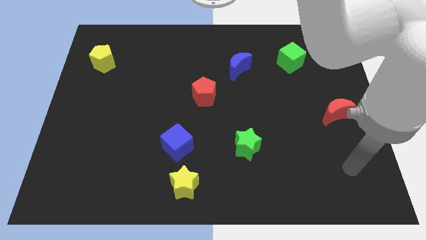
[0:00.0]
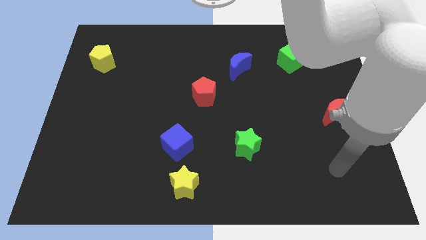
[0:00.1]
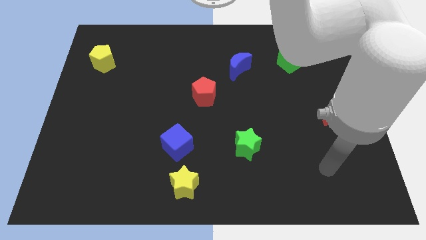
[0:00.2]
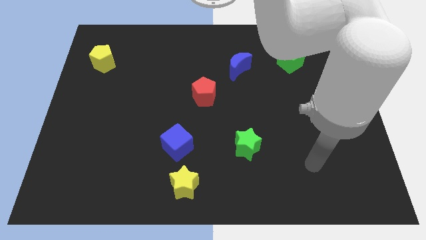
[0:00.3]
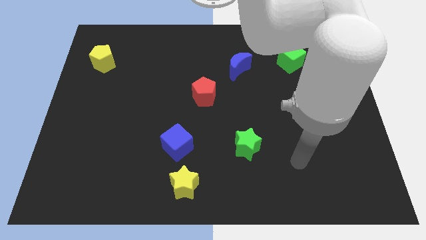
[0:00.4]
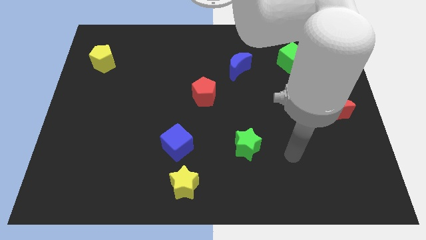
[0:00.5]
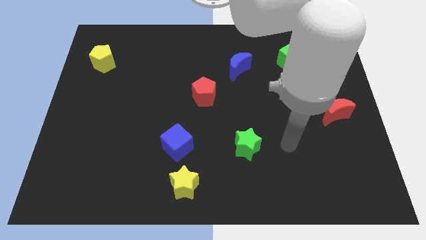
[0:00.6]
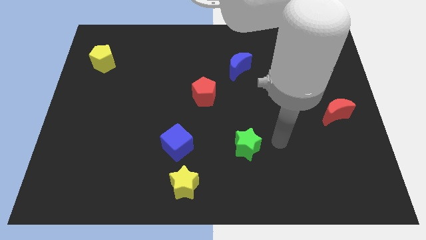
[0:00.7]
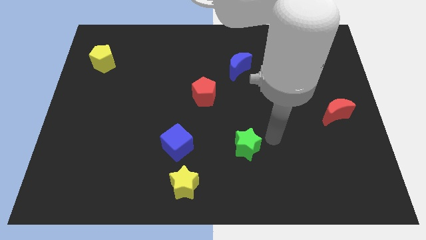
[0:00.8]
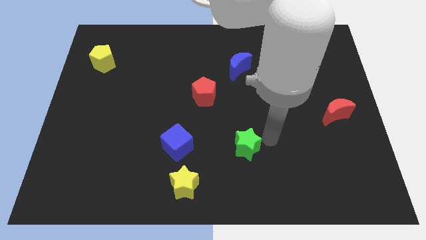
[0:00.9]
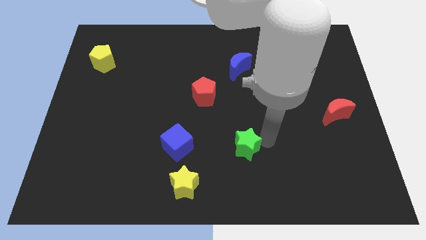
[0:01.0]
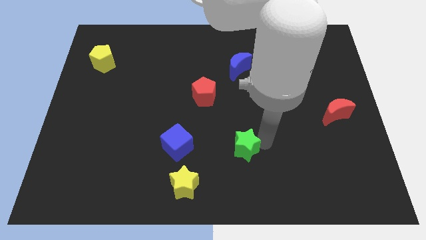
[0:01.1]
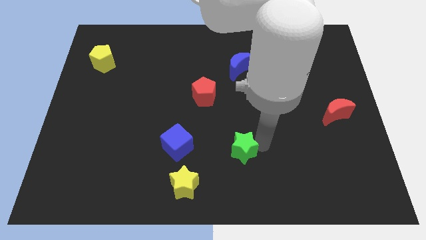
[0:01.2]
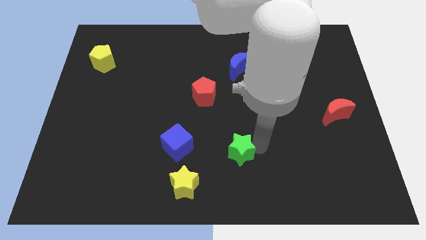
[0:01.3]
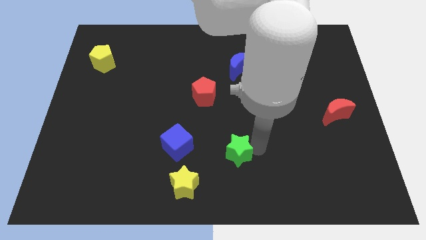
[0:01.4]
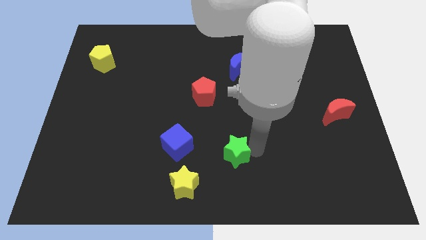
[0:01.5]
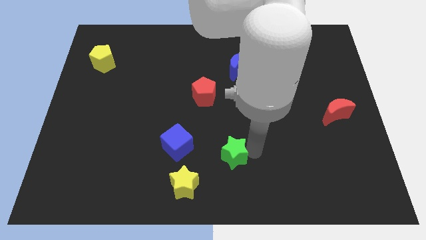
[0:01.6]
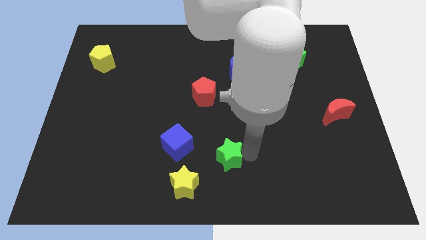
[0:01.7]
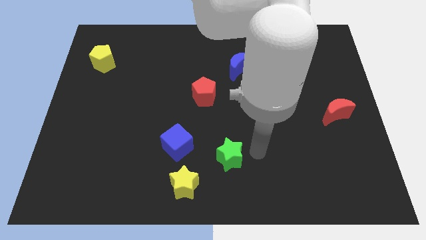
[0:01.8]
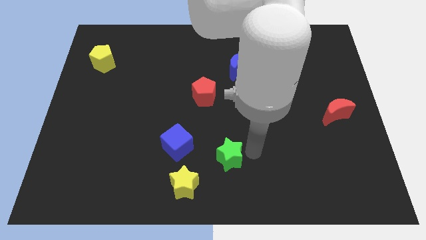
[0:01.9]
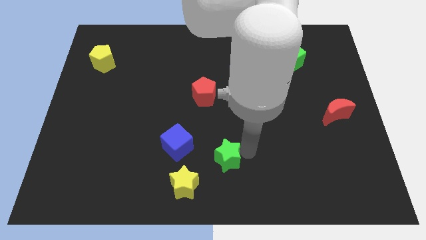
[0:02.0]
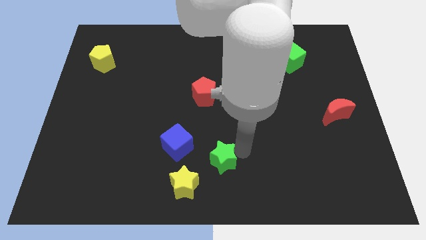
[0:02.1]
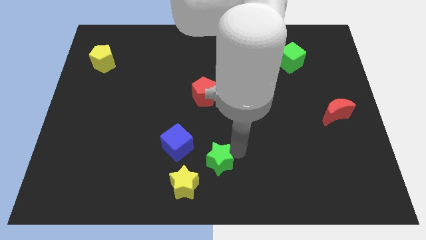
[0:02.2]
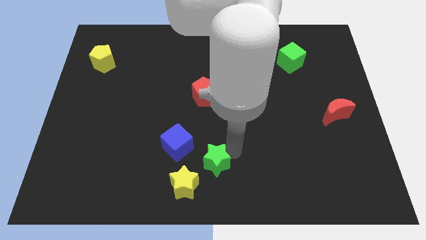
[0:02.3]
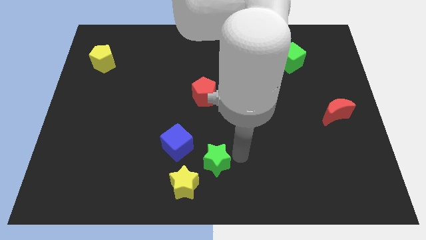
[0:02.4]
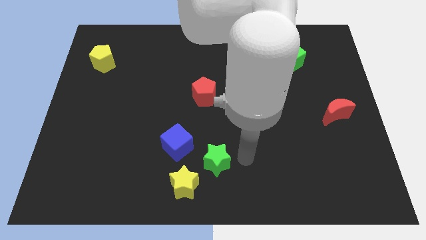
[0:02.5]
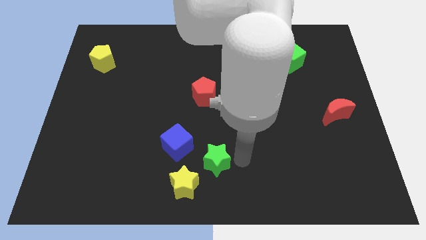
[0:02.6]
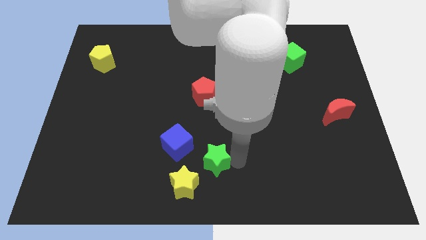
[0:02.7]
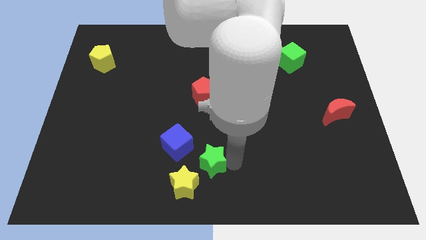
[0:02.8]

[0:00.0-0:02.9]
push the green star to the left a little bit

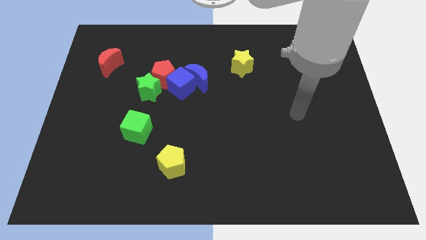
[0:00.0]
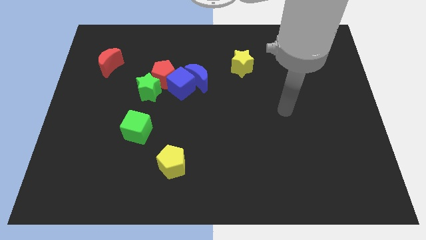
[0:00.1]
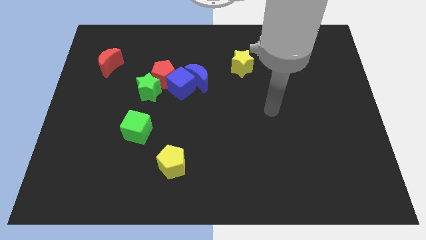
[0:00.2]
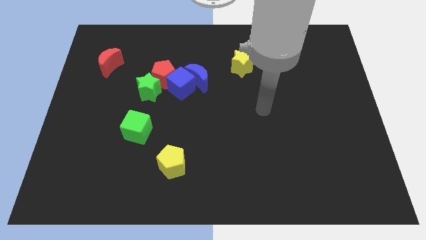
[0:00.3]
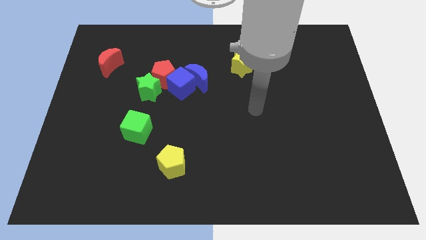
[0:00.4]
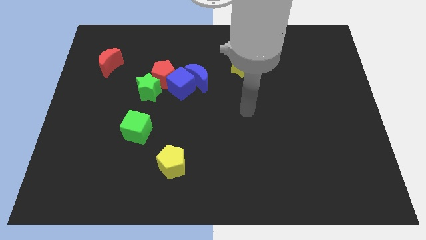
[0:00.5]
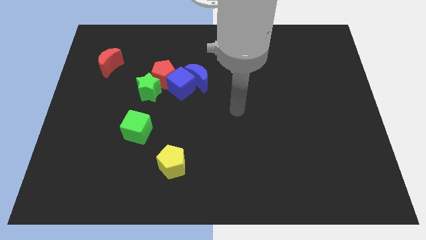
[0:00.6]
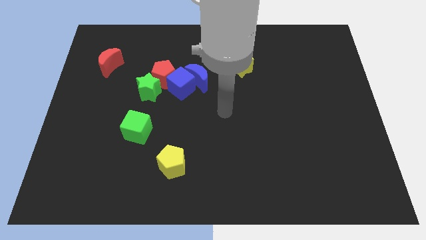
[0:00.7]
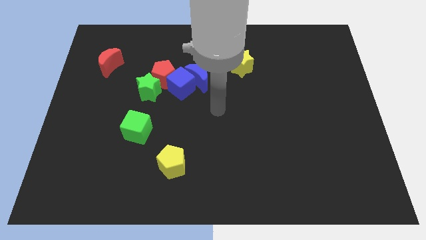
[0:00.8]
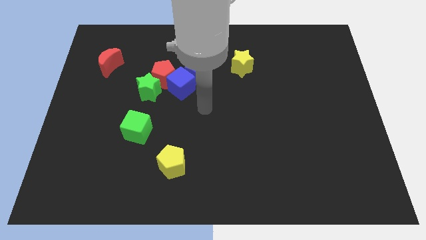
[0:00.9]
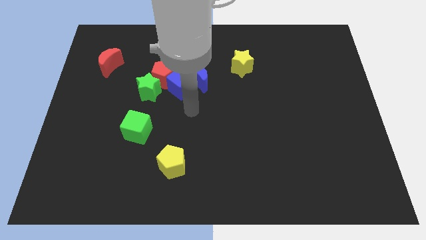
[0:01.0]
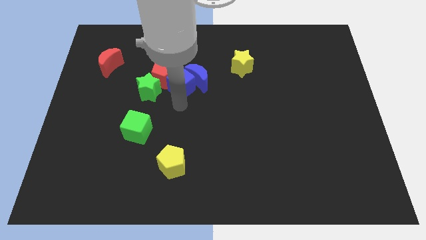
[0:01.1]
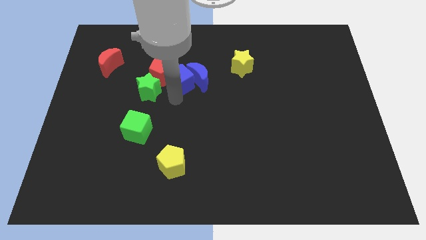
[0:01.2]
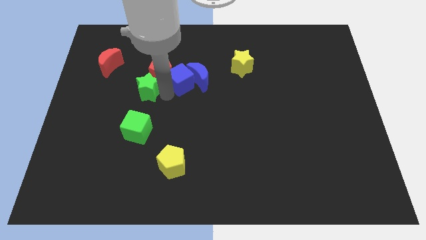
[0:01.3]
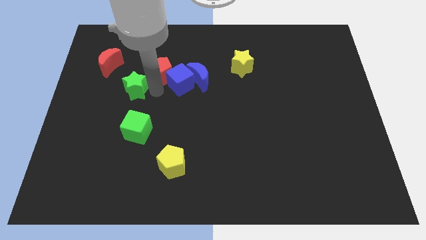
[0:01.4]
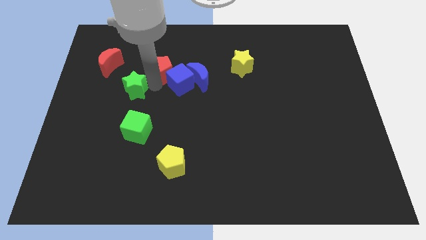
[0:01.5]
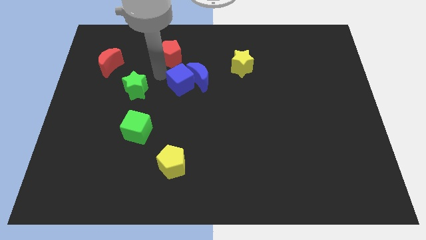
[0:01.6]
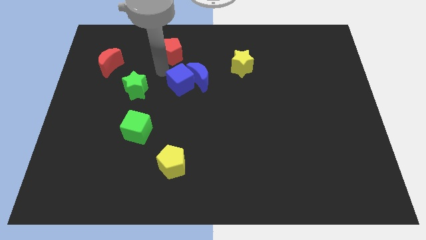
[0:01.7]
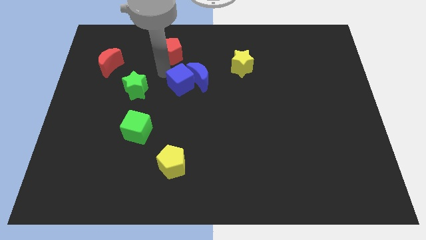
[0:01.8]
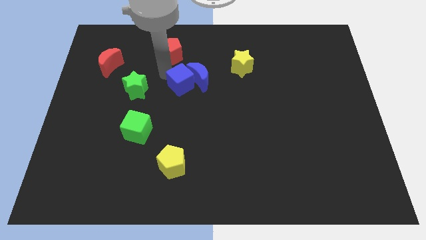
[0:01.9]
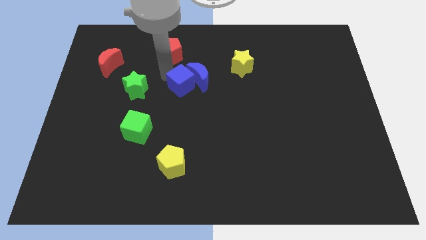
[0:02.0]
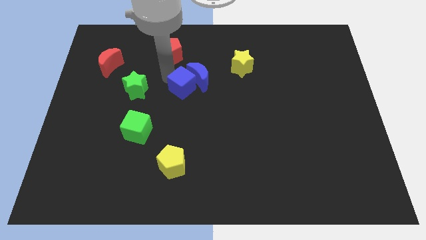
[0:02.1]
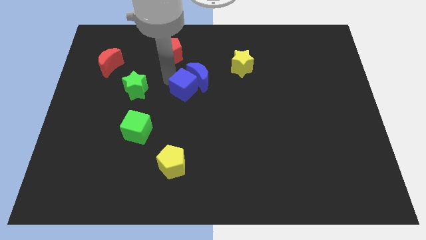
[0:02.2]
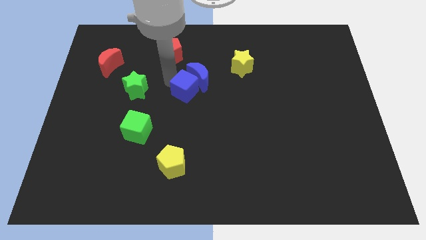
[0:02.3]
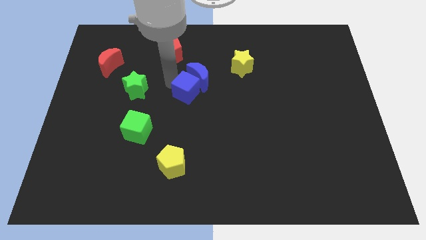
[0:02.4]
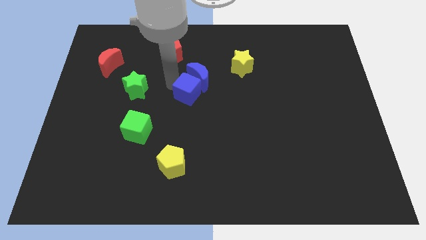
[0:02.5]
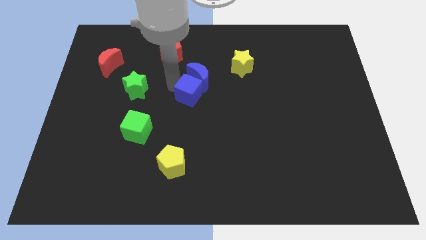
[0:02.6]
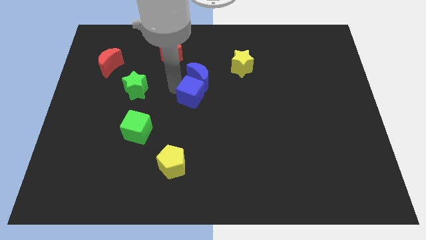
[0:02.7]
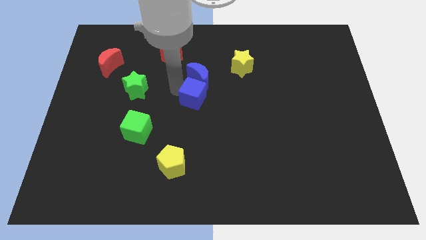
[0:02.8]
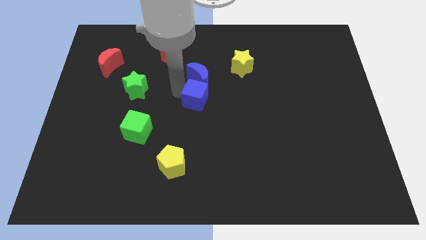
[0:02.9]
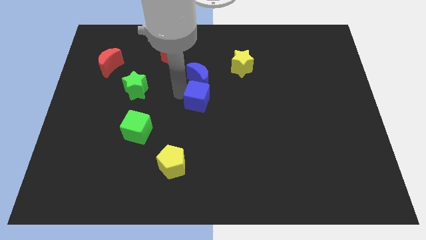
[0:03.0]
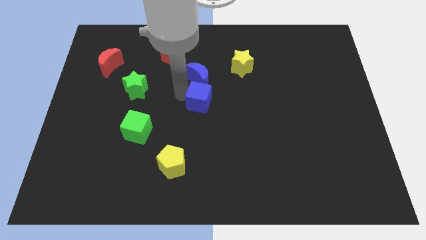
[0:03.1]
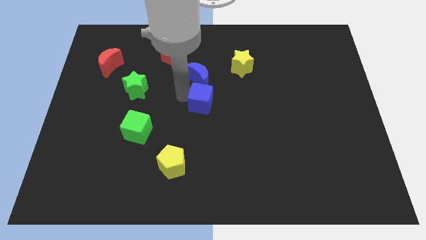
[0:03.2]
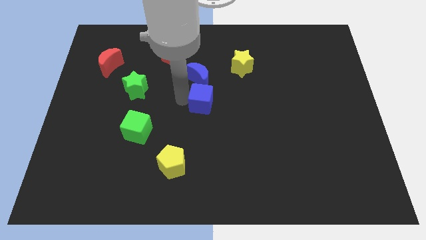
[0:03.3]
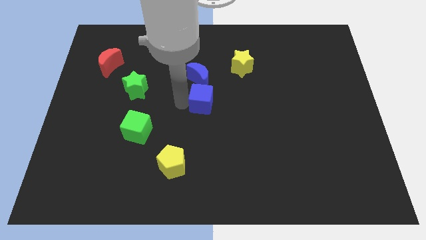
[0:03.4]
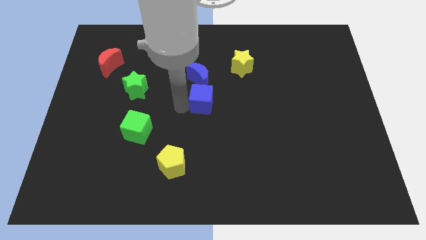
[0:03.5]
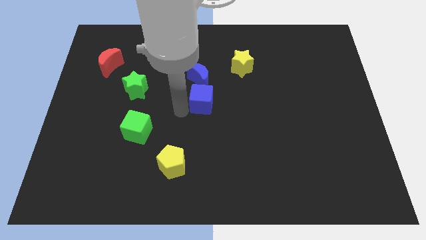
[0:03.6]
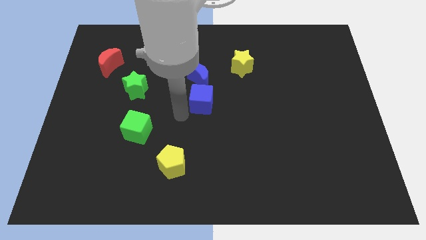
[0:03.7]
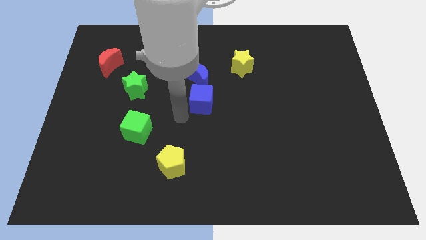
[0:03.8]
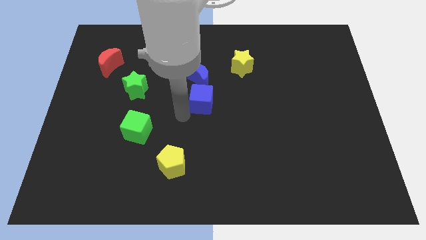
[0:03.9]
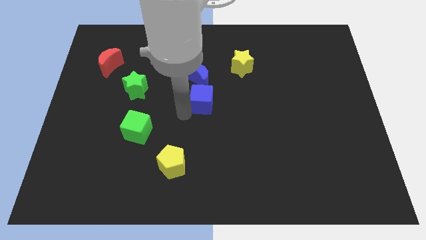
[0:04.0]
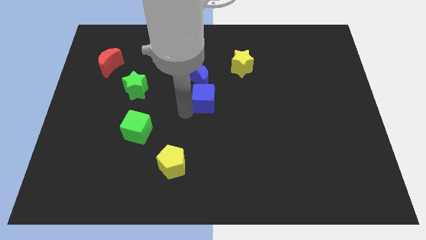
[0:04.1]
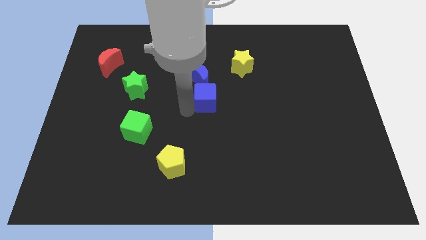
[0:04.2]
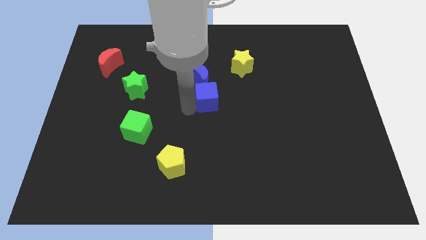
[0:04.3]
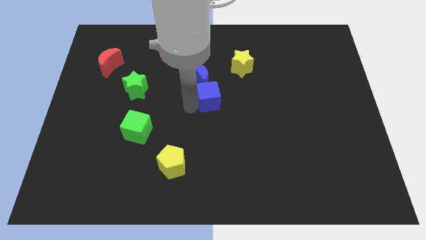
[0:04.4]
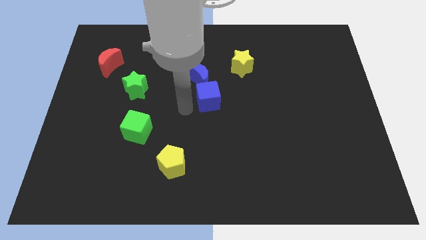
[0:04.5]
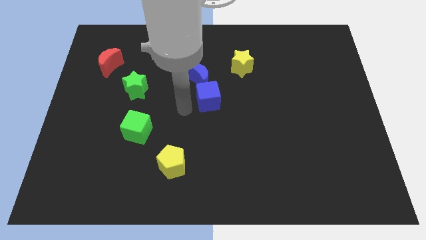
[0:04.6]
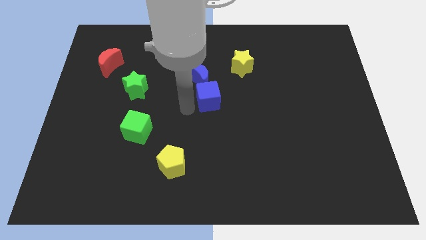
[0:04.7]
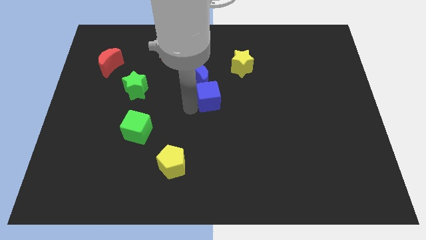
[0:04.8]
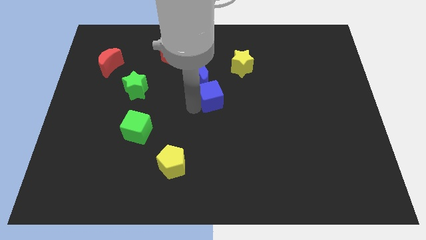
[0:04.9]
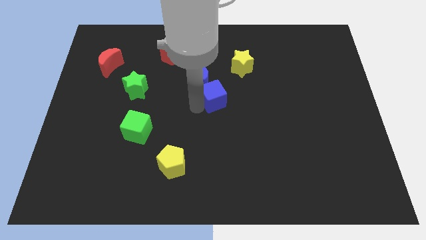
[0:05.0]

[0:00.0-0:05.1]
slightly push the blue cube to the right

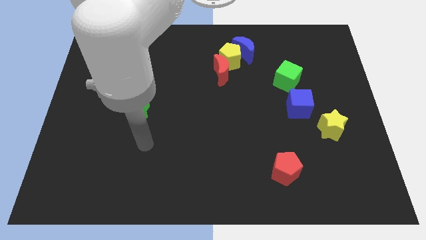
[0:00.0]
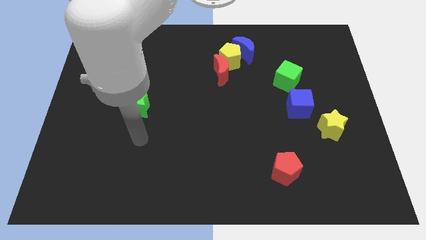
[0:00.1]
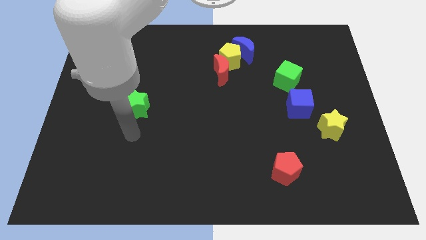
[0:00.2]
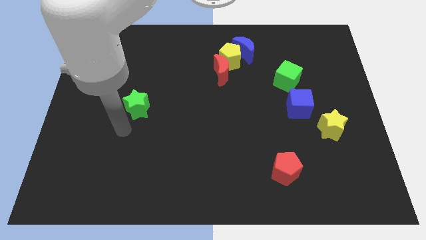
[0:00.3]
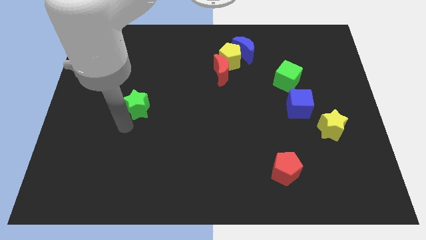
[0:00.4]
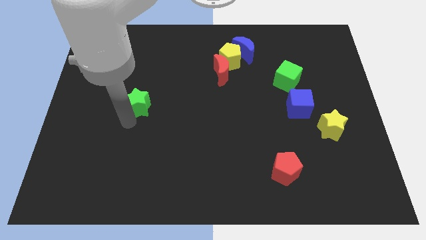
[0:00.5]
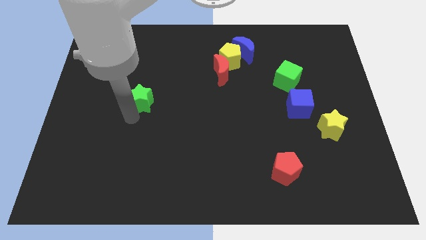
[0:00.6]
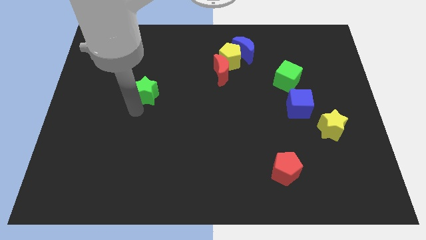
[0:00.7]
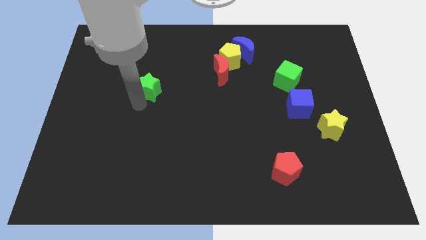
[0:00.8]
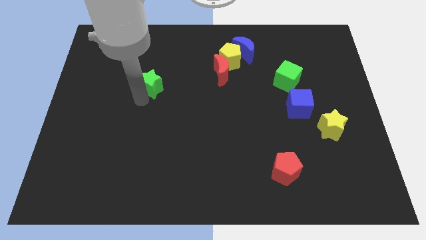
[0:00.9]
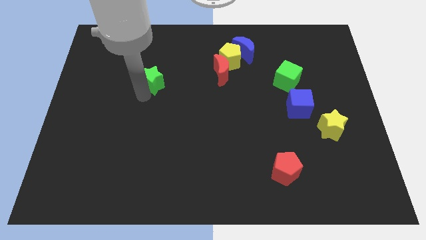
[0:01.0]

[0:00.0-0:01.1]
push the green star up and then right somewhat
